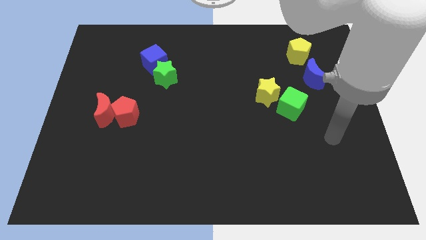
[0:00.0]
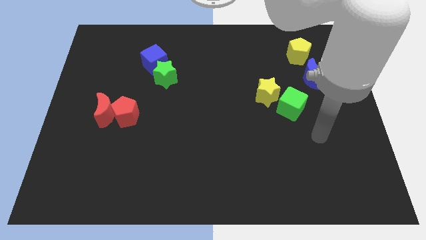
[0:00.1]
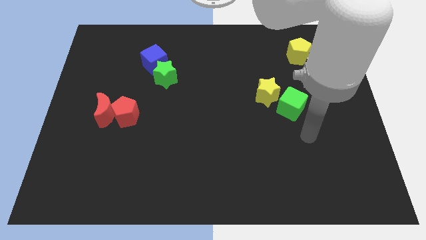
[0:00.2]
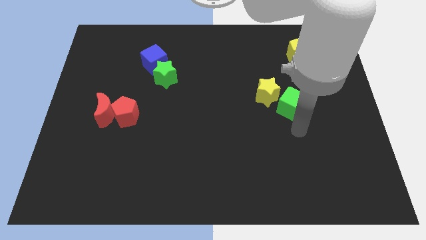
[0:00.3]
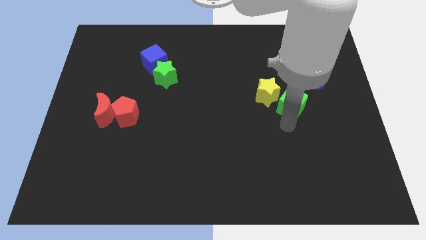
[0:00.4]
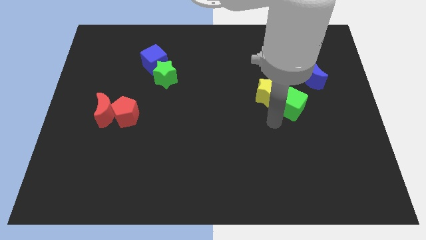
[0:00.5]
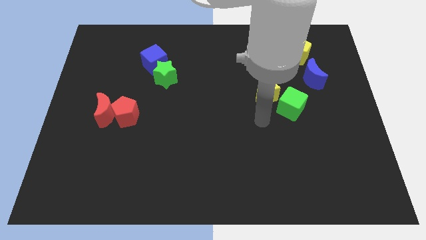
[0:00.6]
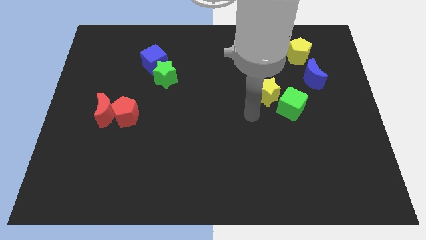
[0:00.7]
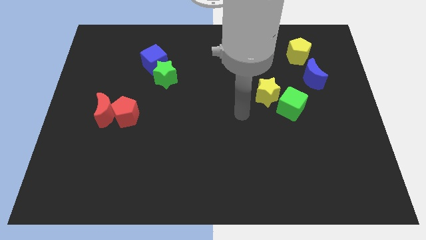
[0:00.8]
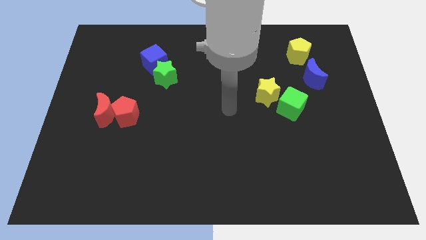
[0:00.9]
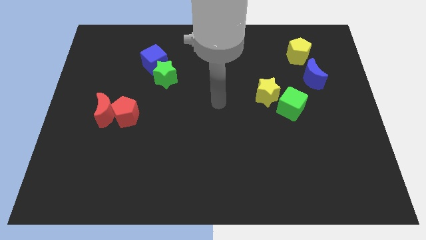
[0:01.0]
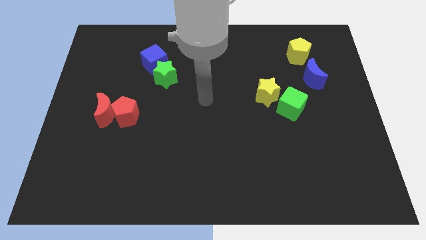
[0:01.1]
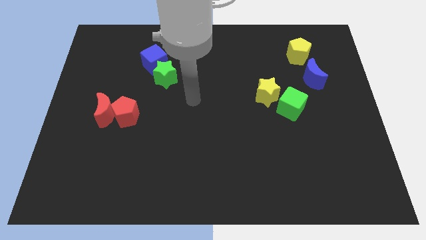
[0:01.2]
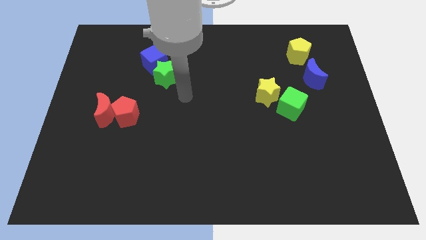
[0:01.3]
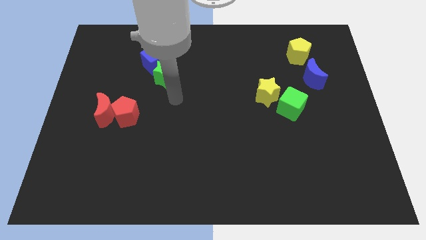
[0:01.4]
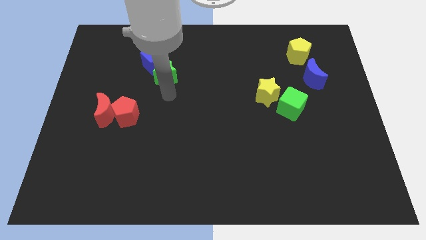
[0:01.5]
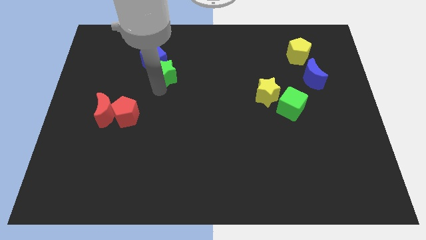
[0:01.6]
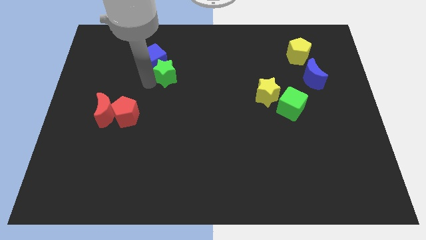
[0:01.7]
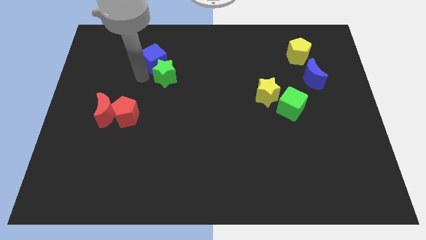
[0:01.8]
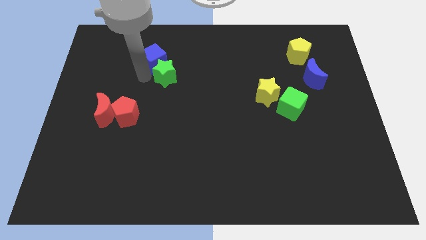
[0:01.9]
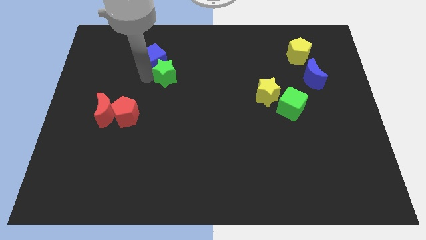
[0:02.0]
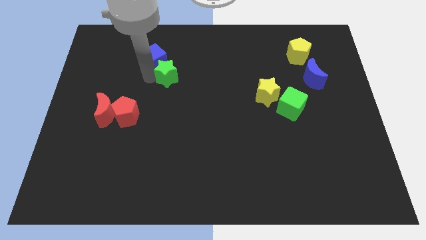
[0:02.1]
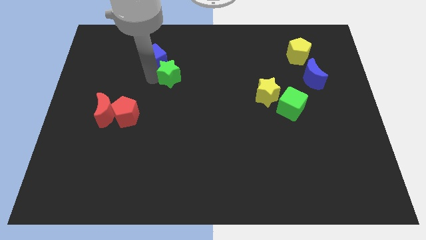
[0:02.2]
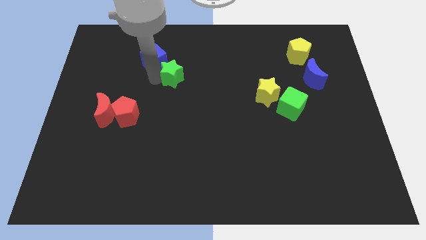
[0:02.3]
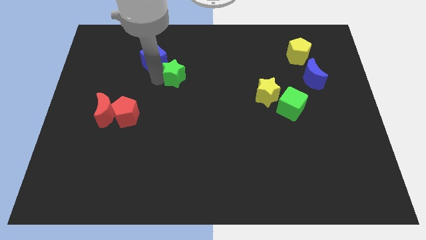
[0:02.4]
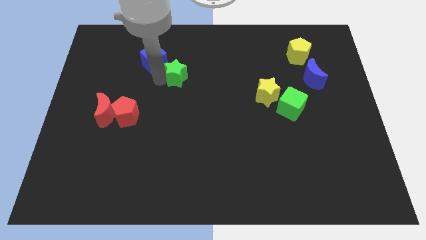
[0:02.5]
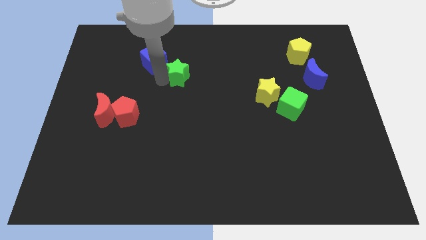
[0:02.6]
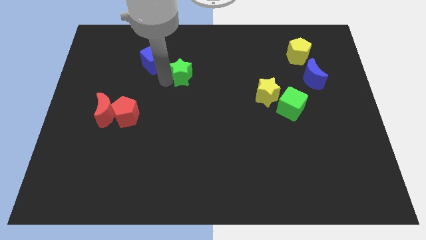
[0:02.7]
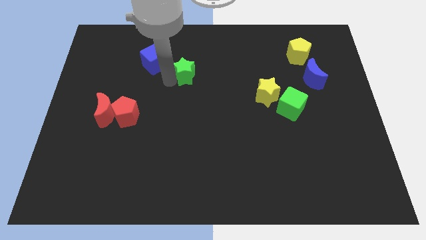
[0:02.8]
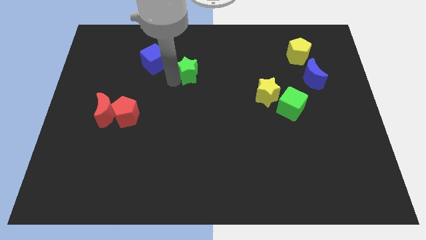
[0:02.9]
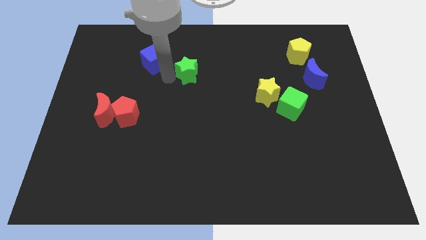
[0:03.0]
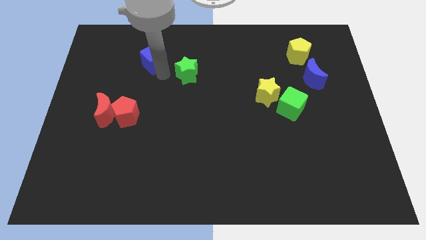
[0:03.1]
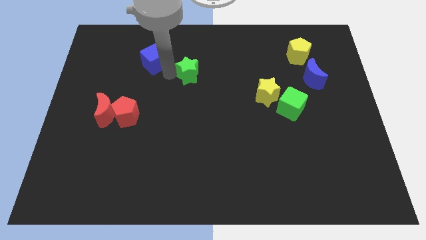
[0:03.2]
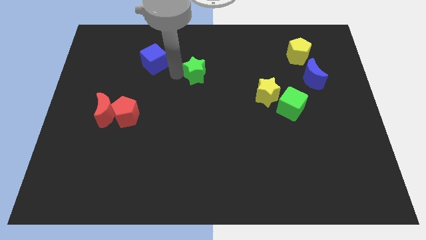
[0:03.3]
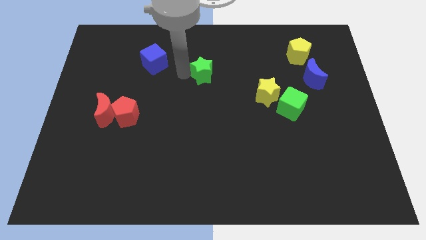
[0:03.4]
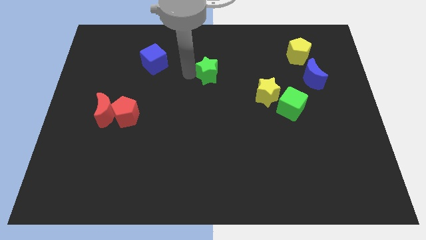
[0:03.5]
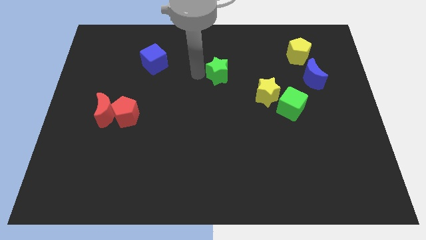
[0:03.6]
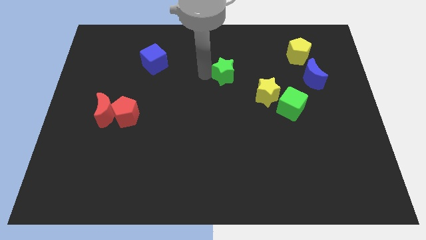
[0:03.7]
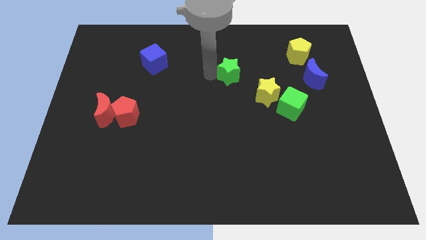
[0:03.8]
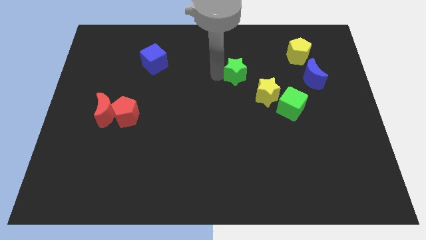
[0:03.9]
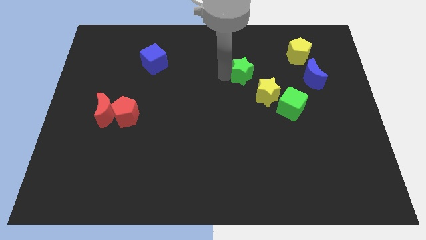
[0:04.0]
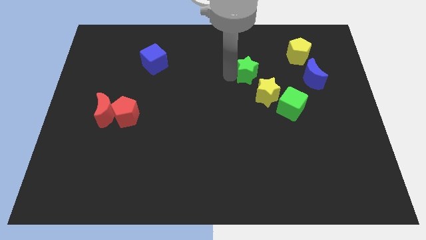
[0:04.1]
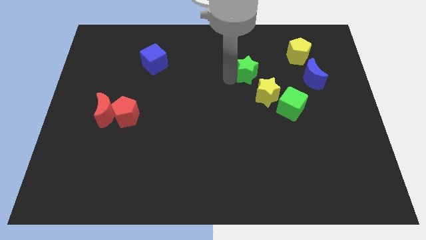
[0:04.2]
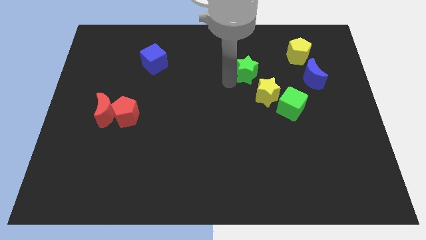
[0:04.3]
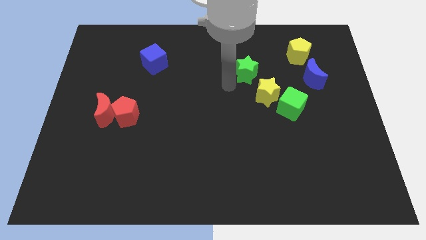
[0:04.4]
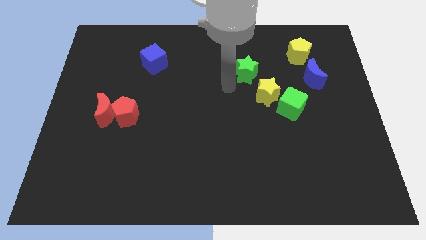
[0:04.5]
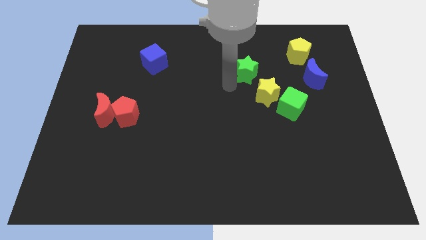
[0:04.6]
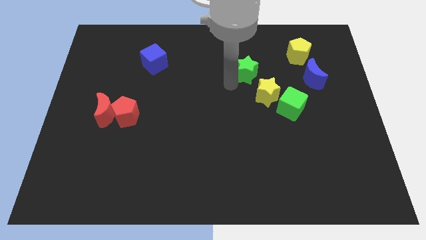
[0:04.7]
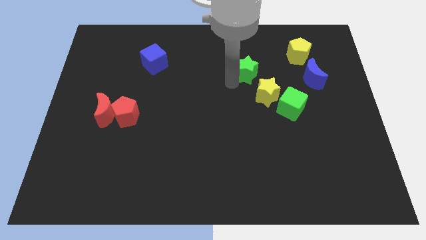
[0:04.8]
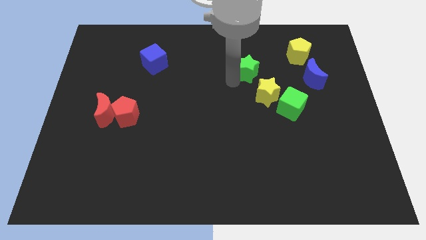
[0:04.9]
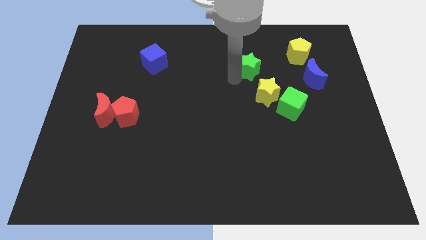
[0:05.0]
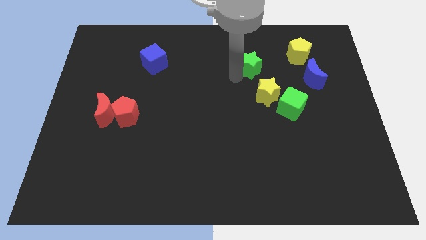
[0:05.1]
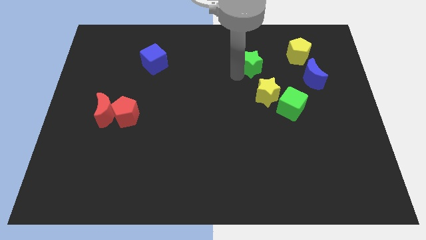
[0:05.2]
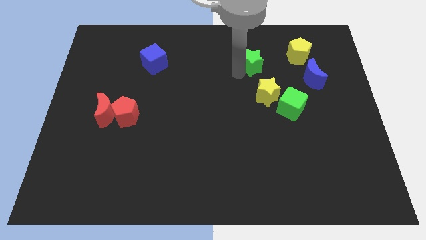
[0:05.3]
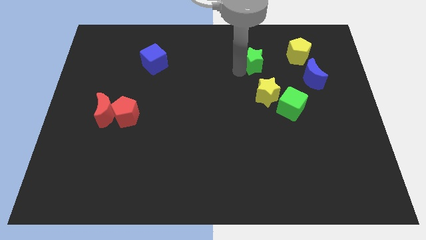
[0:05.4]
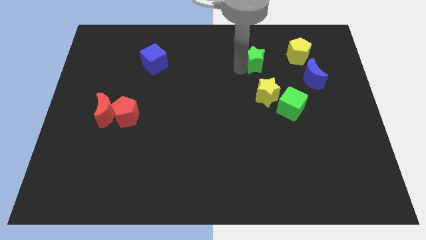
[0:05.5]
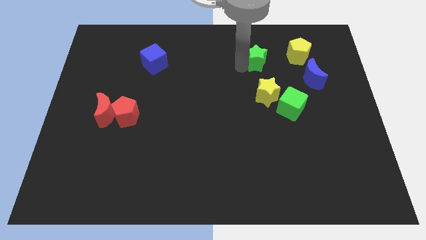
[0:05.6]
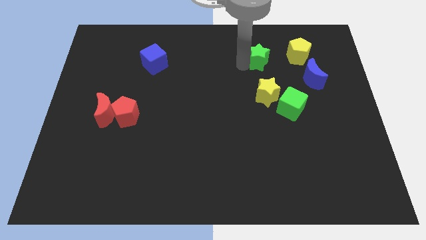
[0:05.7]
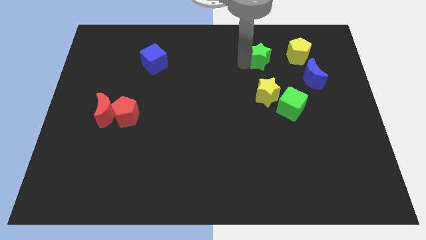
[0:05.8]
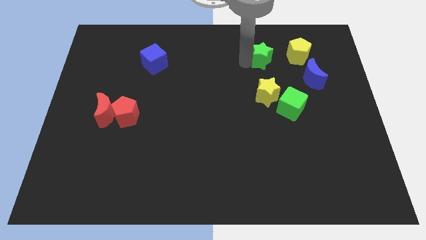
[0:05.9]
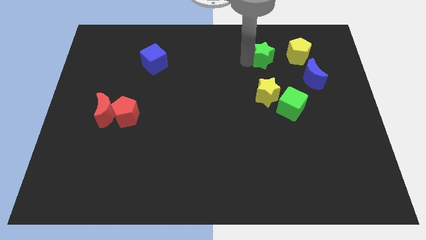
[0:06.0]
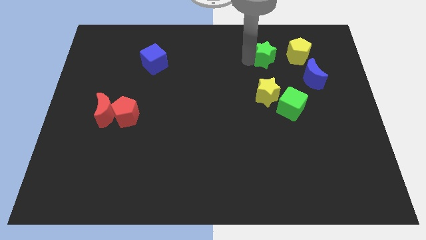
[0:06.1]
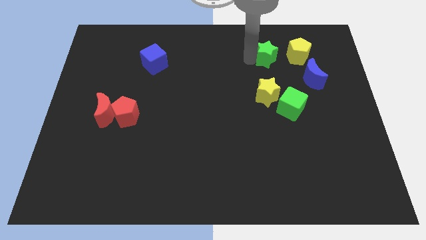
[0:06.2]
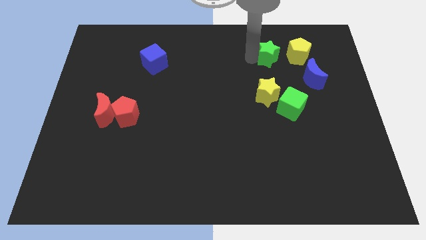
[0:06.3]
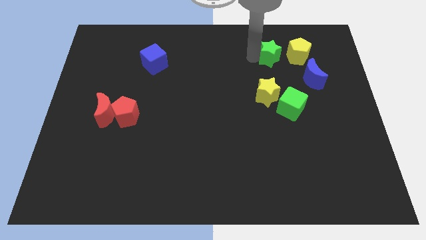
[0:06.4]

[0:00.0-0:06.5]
slide the green star to the top left of the blue moon

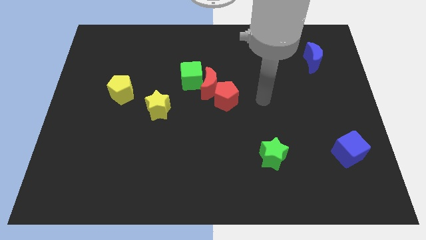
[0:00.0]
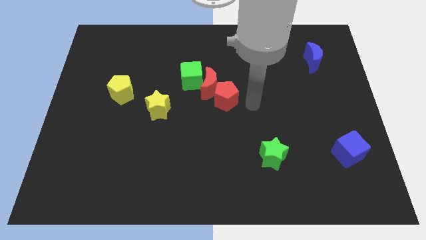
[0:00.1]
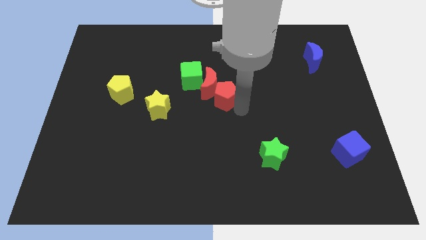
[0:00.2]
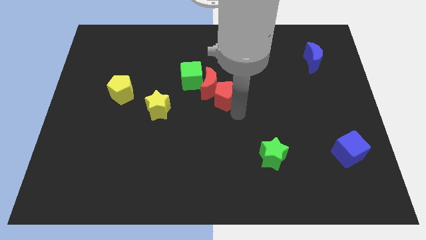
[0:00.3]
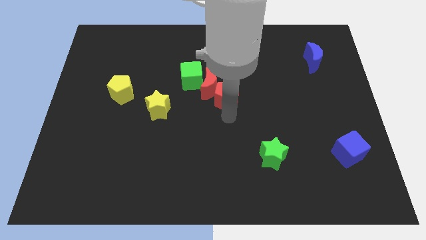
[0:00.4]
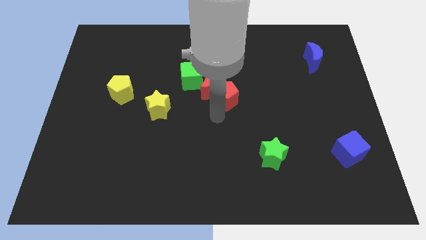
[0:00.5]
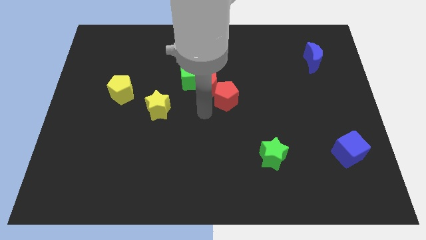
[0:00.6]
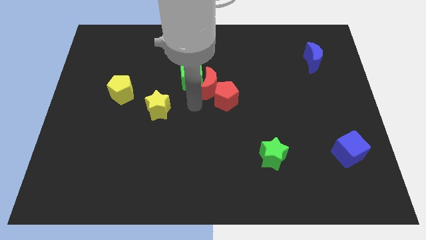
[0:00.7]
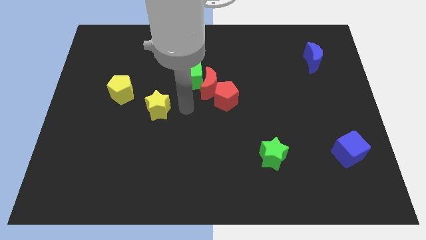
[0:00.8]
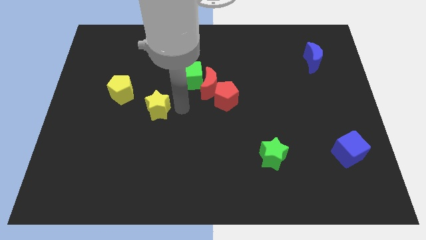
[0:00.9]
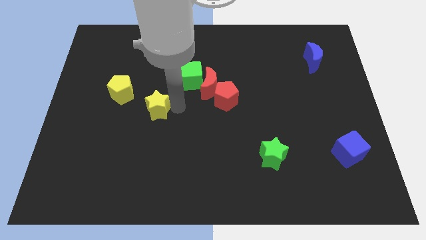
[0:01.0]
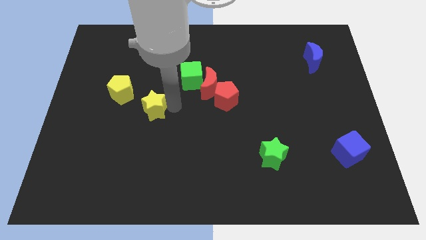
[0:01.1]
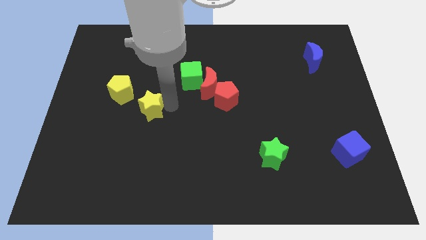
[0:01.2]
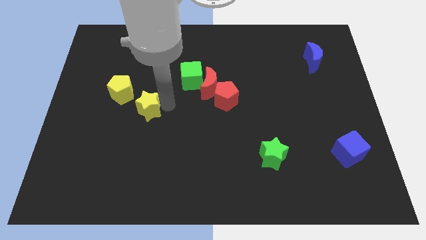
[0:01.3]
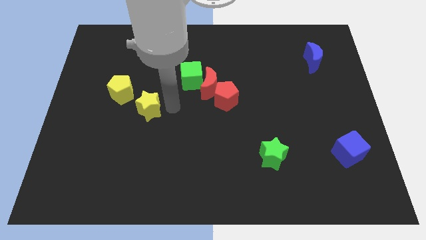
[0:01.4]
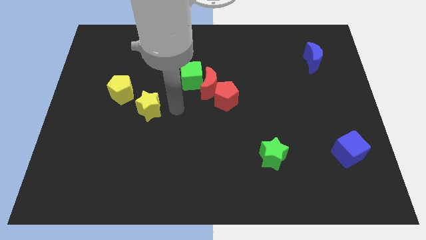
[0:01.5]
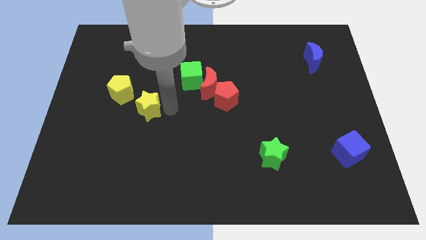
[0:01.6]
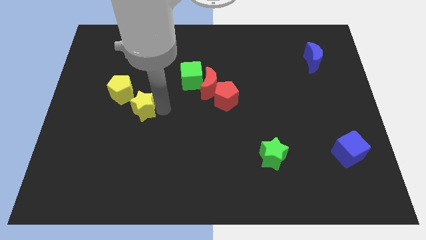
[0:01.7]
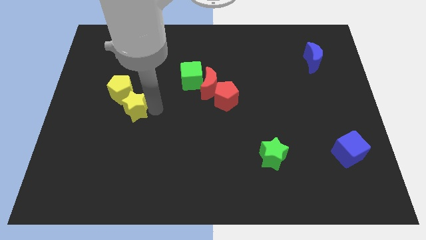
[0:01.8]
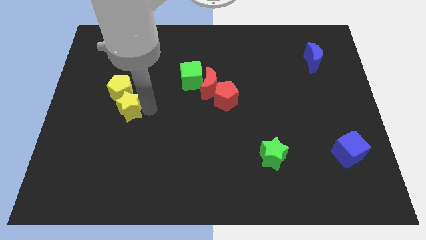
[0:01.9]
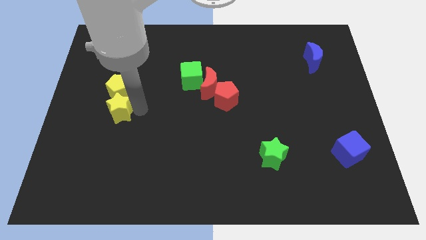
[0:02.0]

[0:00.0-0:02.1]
move the yellow star diagonally down and to the left of the yellow pentagon
